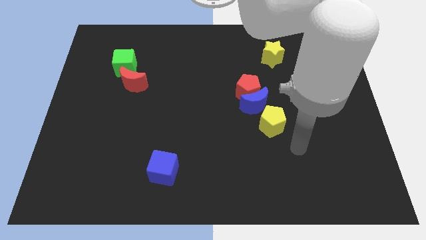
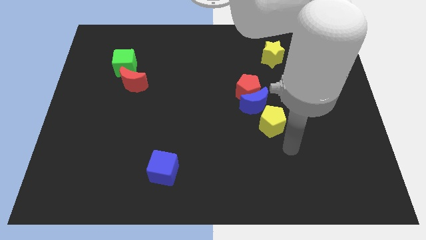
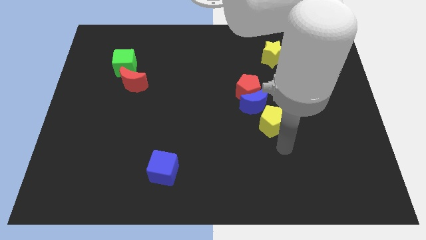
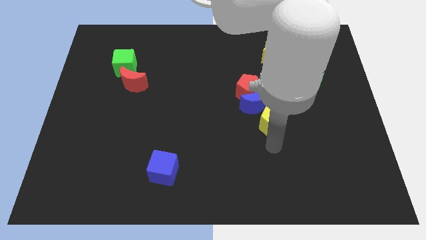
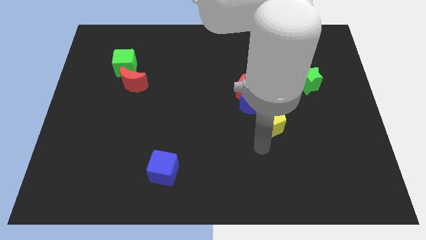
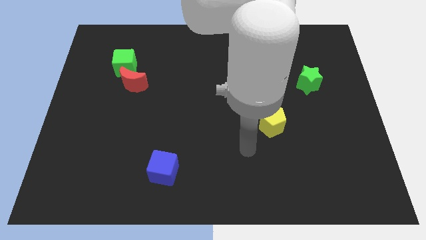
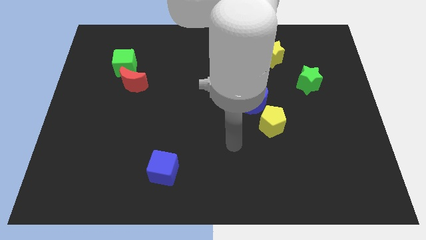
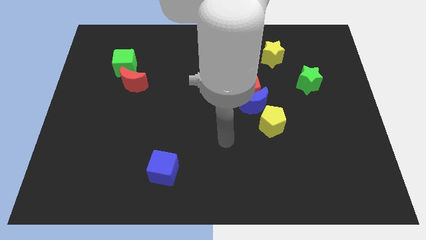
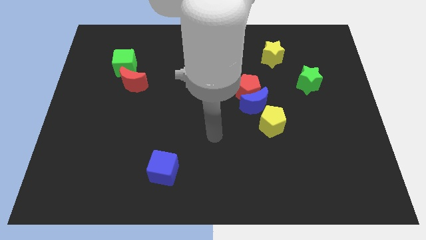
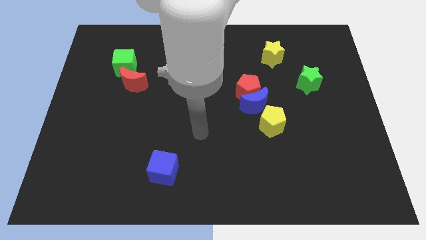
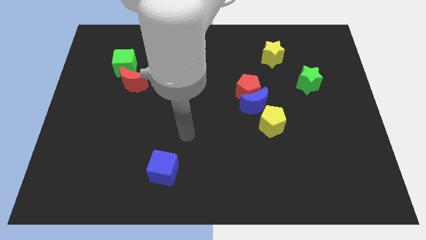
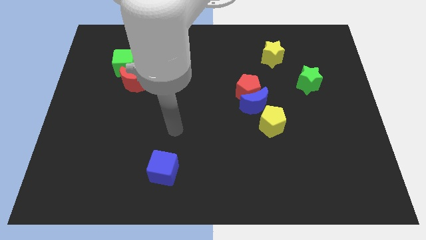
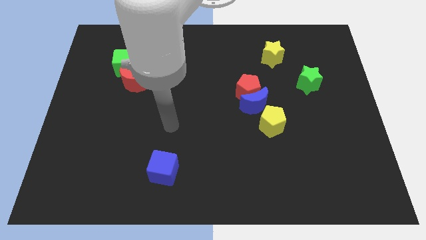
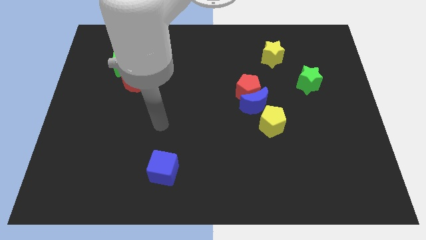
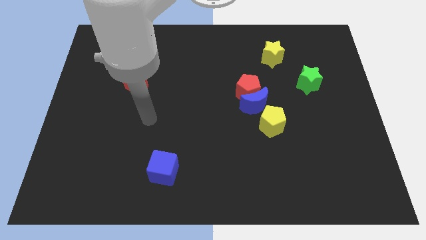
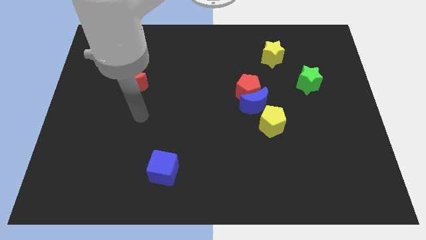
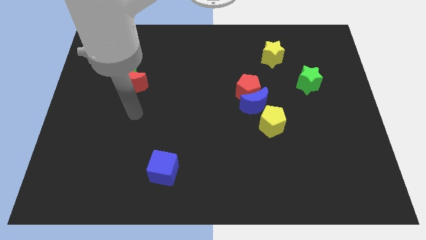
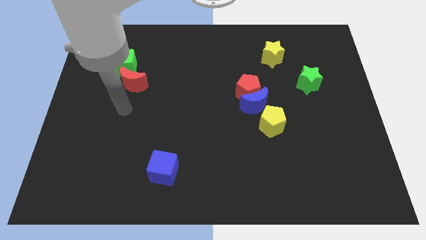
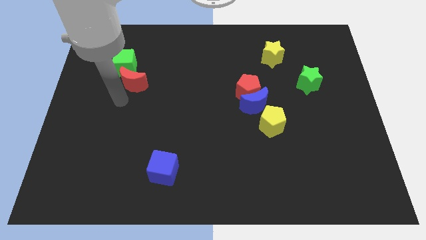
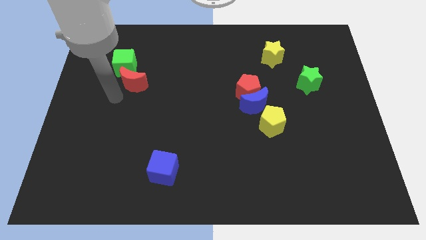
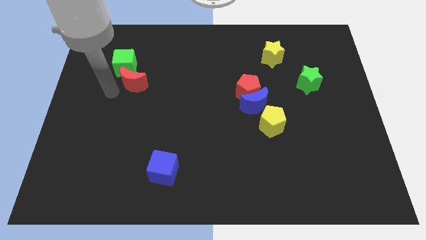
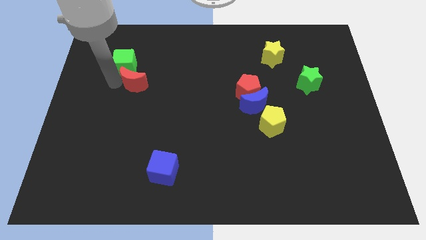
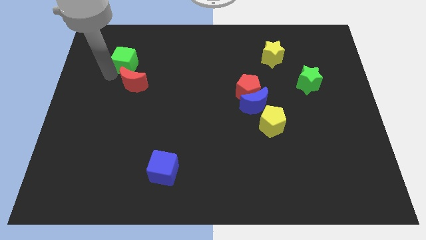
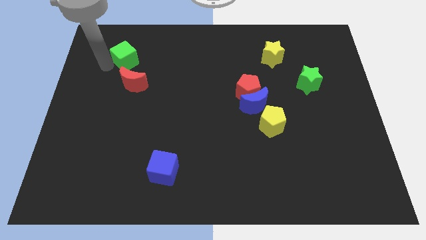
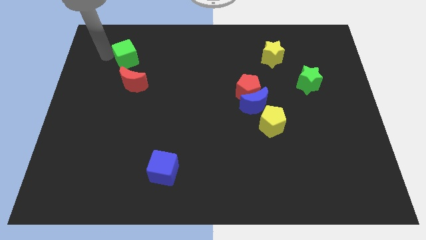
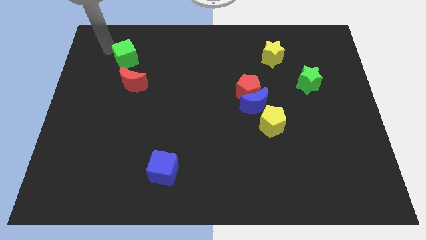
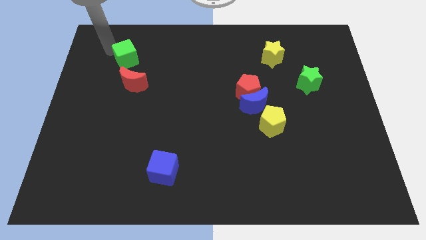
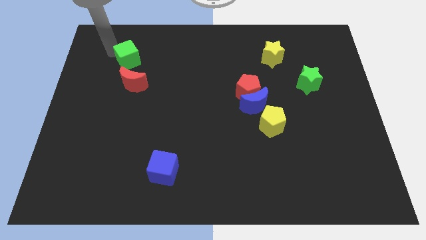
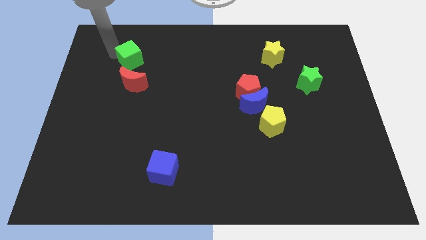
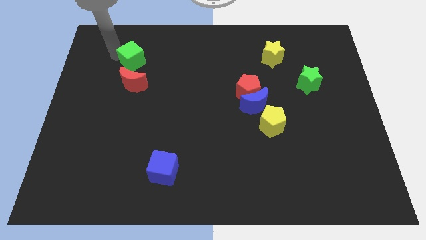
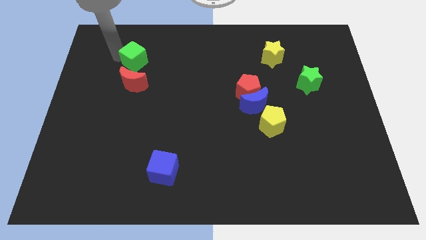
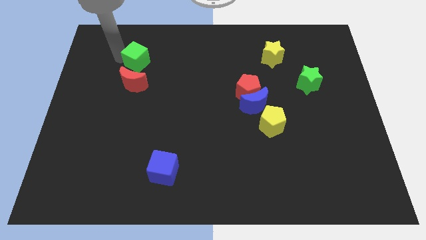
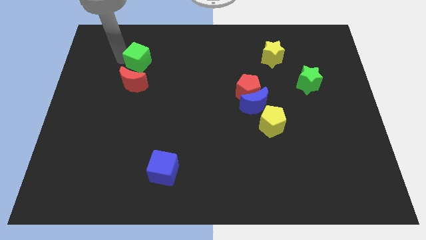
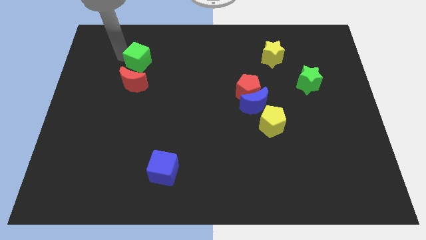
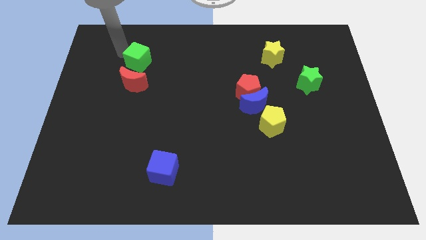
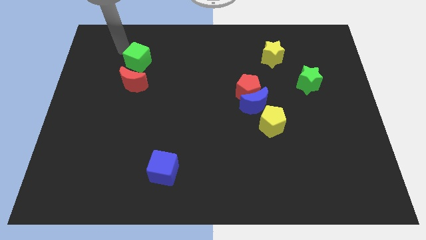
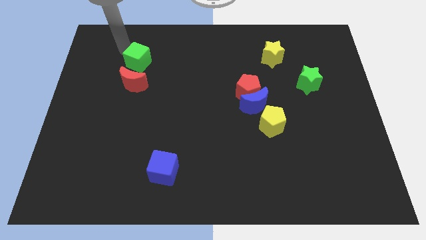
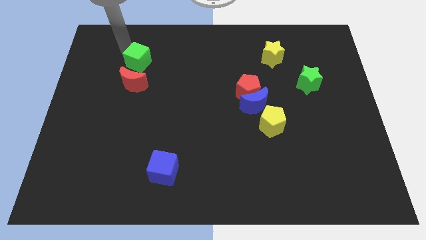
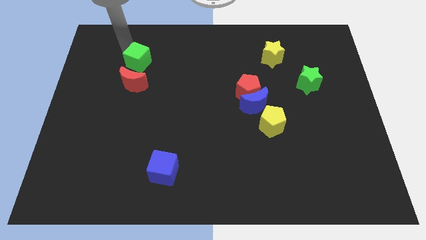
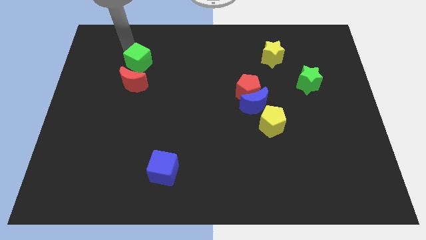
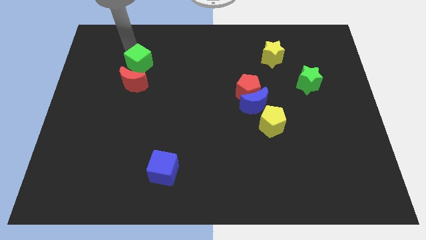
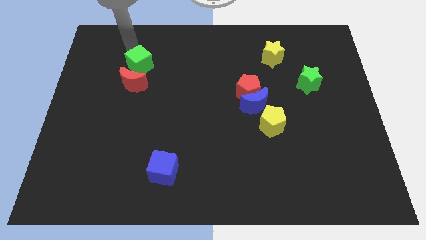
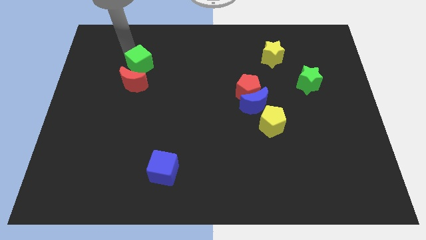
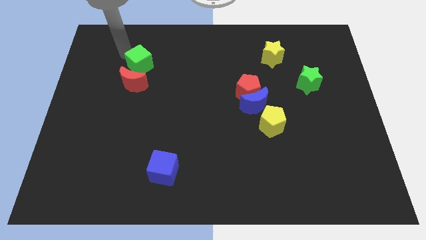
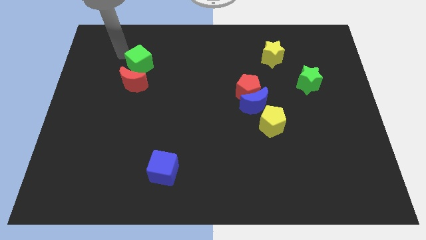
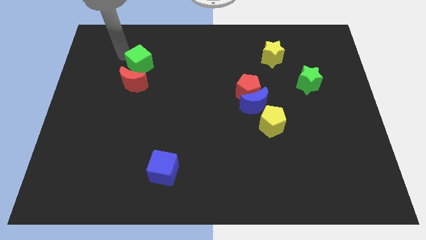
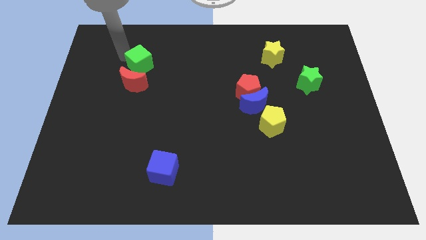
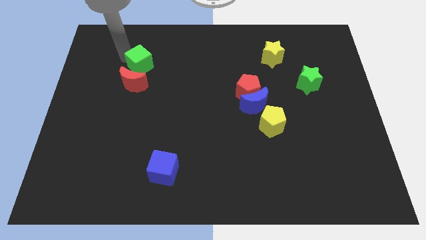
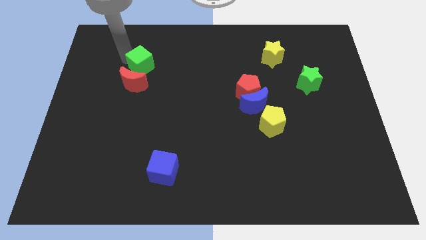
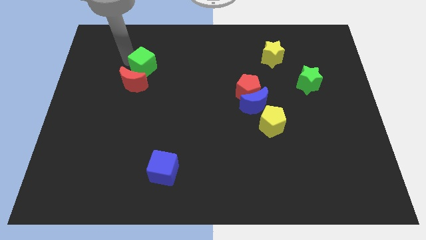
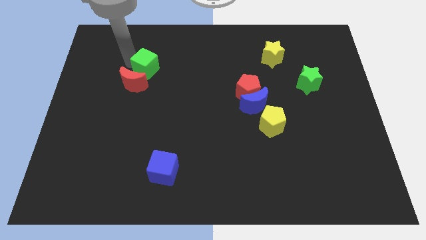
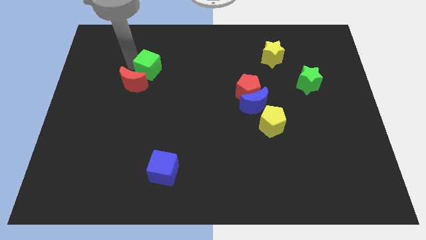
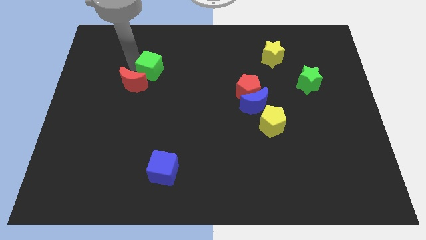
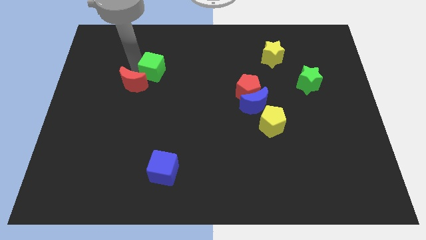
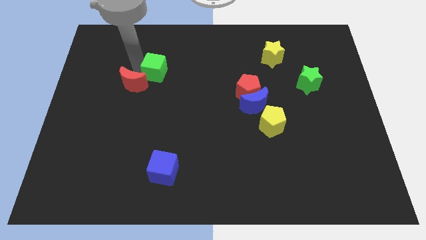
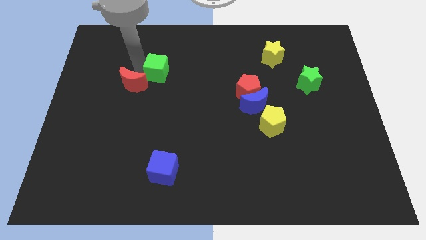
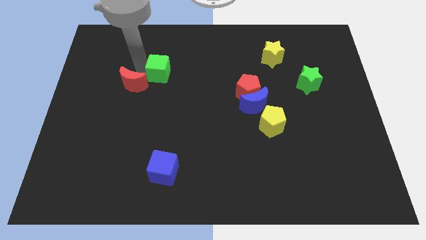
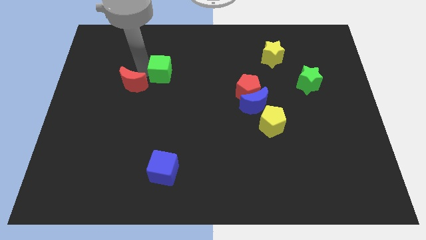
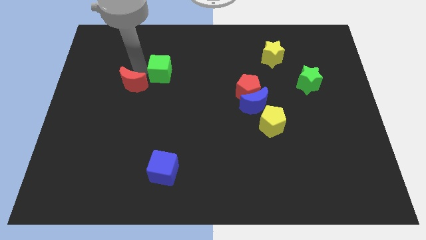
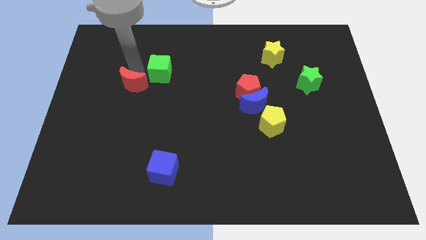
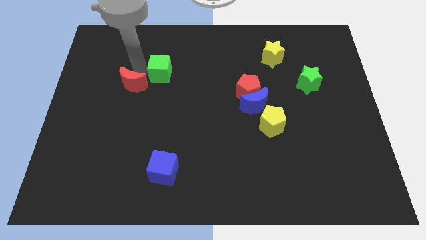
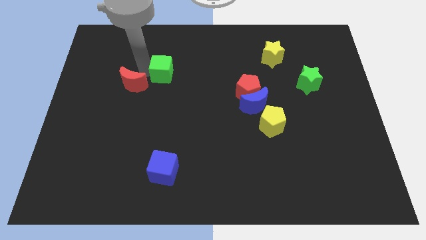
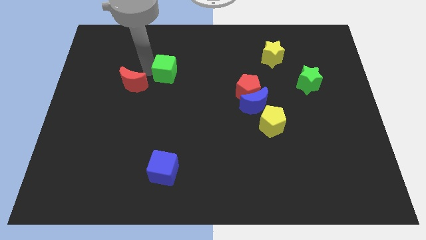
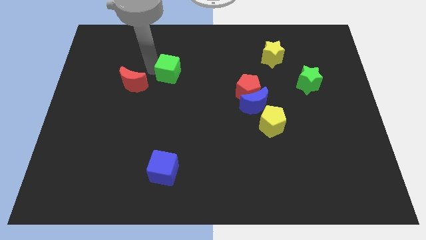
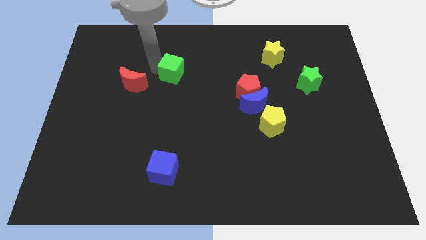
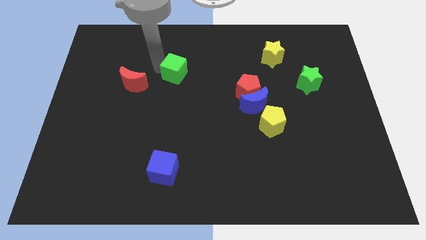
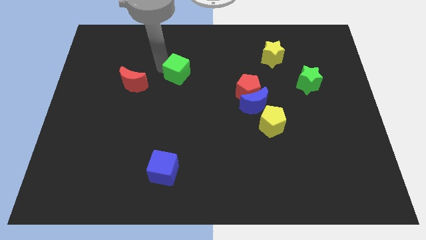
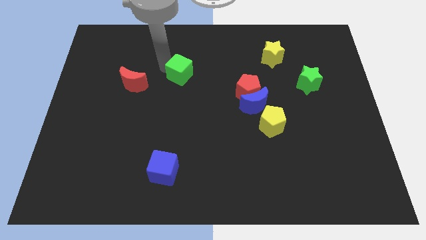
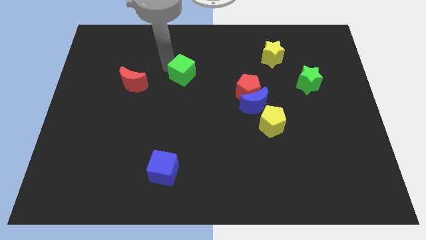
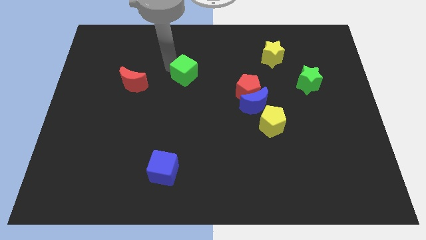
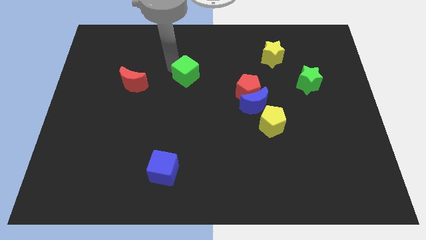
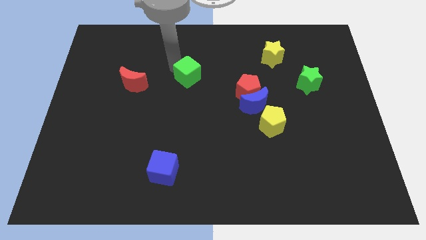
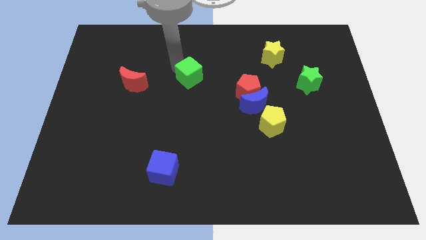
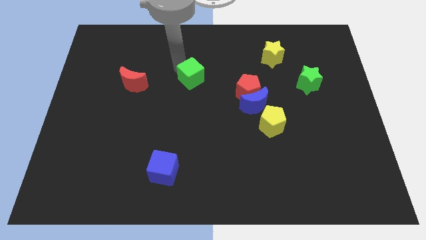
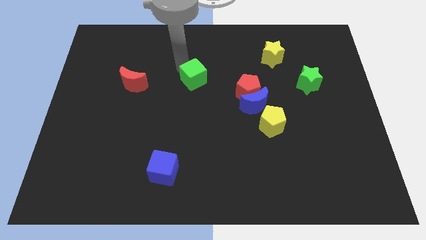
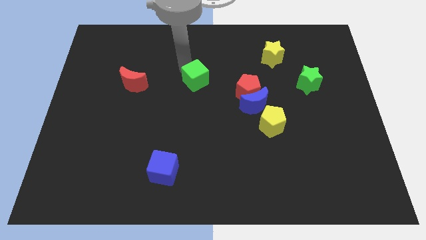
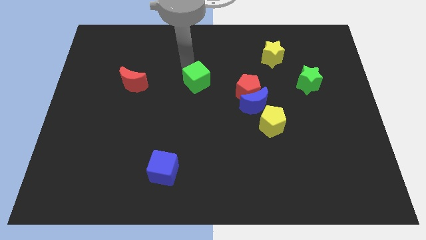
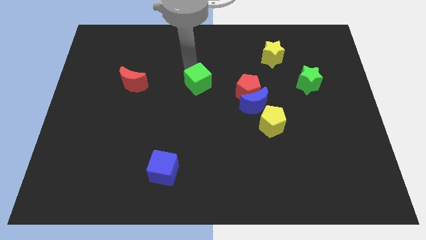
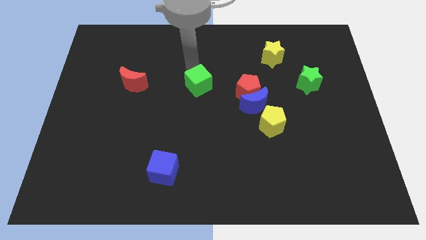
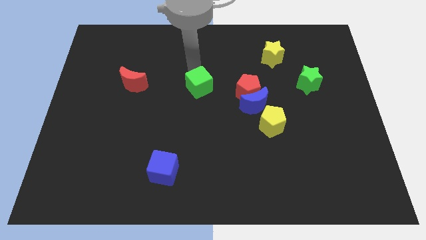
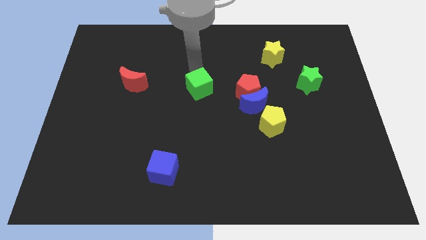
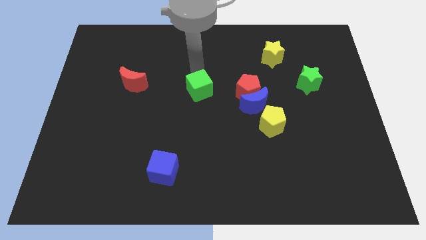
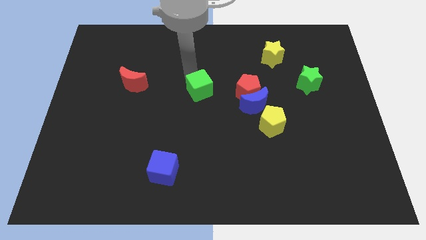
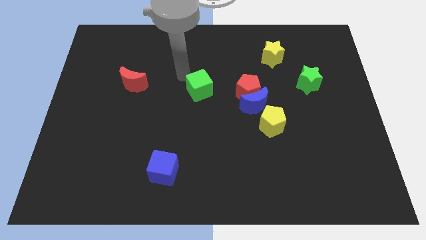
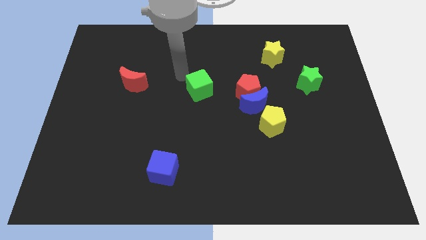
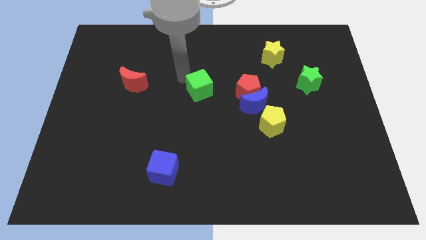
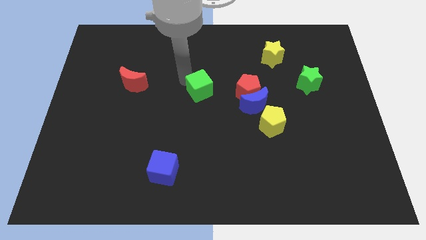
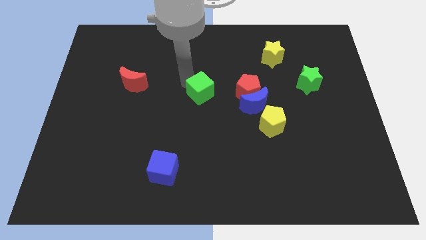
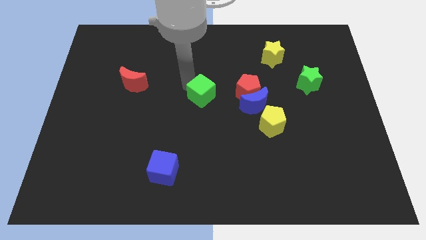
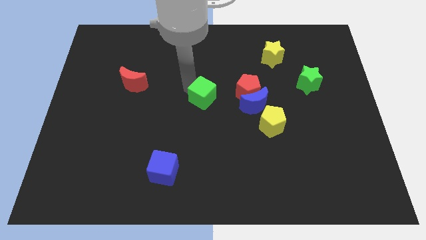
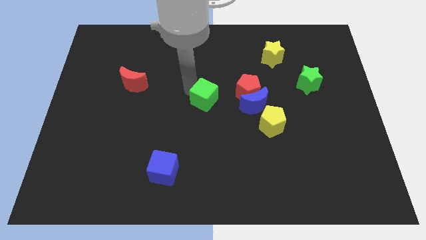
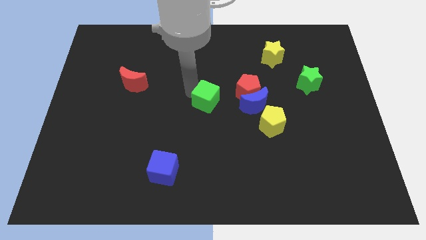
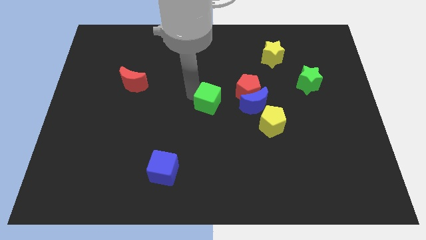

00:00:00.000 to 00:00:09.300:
move the green cube diagonally down and to the left of the red pentagon
